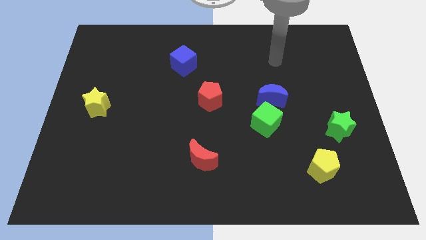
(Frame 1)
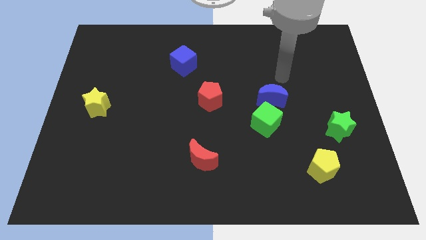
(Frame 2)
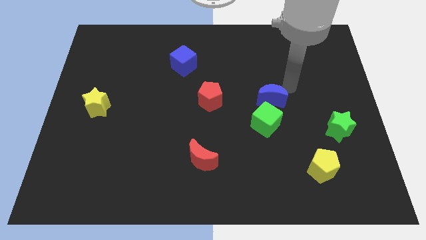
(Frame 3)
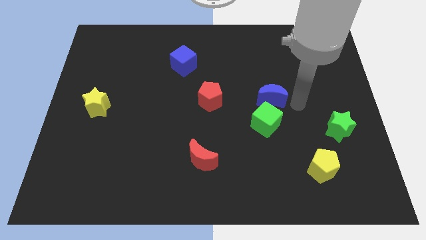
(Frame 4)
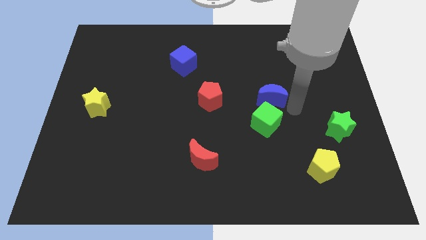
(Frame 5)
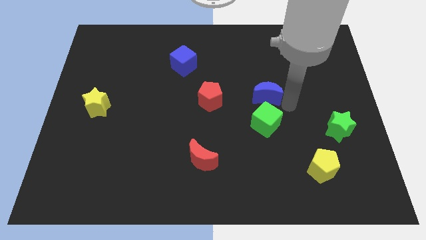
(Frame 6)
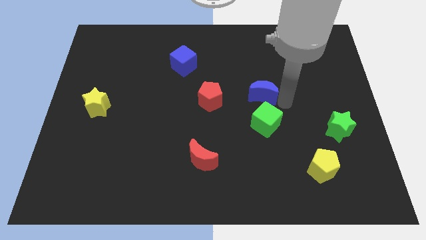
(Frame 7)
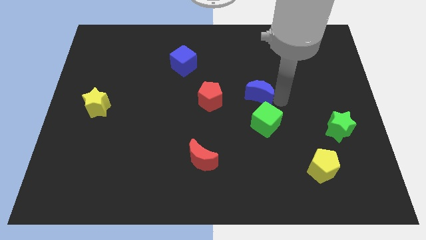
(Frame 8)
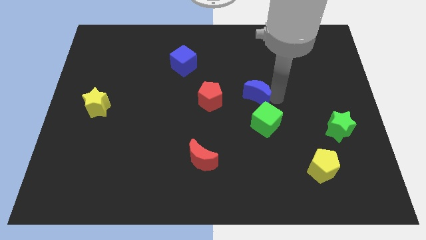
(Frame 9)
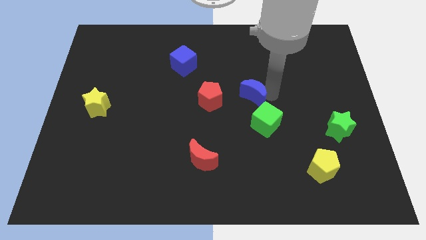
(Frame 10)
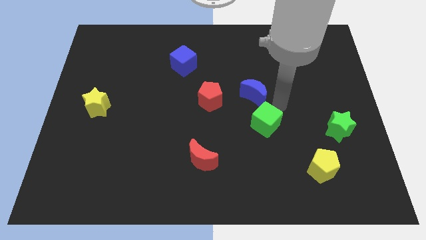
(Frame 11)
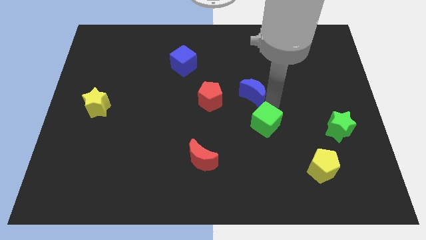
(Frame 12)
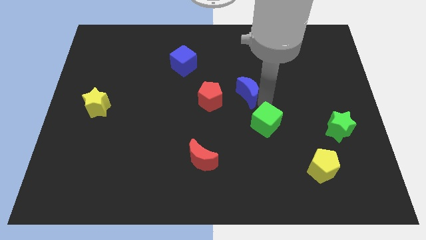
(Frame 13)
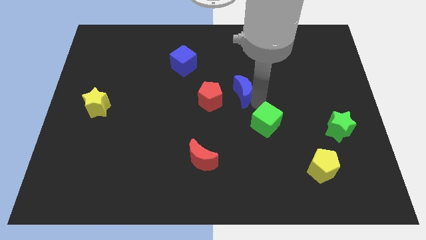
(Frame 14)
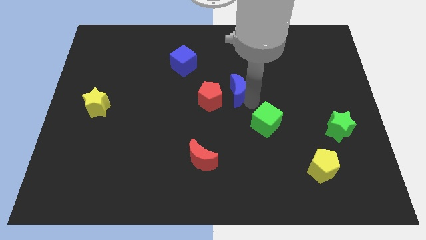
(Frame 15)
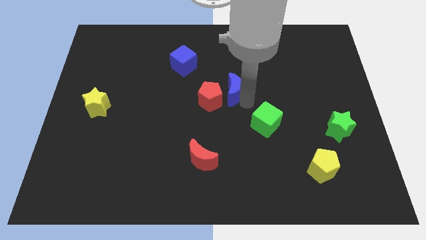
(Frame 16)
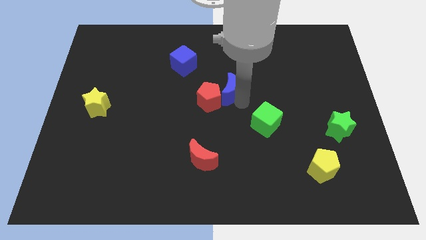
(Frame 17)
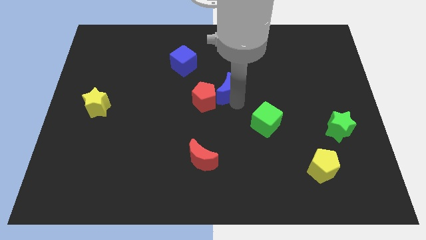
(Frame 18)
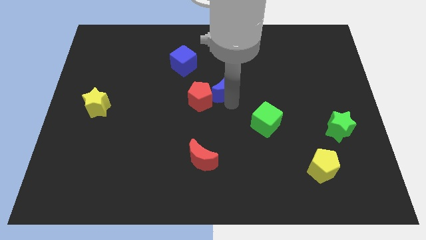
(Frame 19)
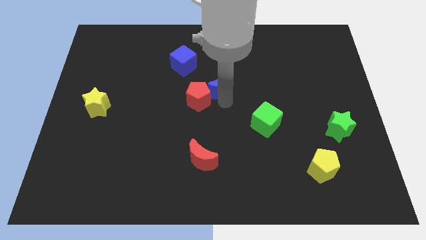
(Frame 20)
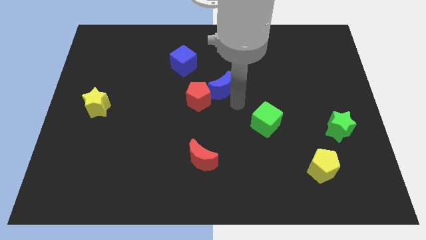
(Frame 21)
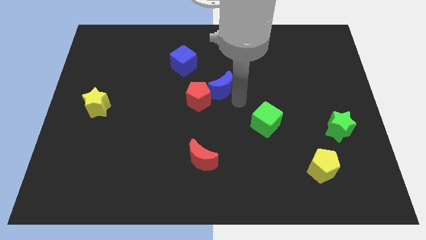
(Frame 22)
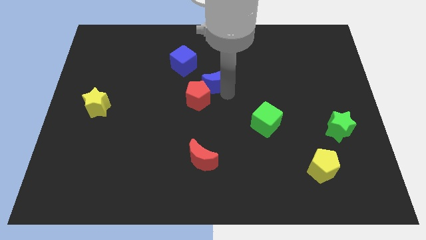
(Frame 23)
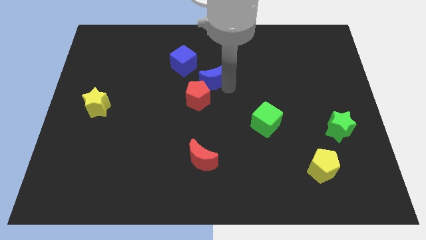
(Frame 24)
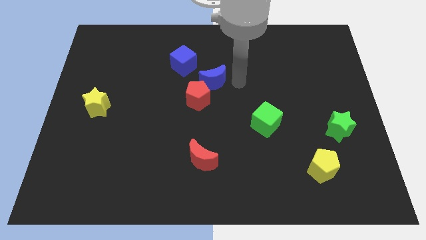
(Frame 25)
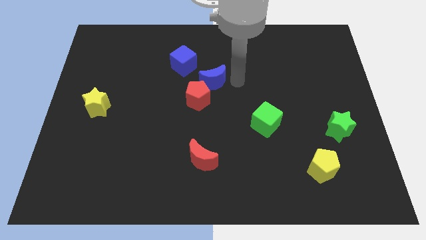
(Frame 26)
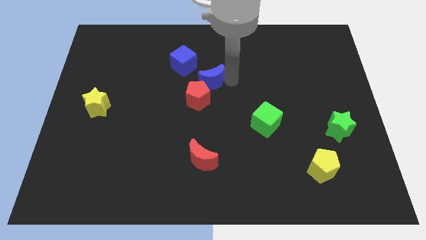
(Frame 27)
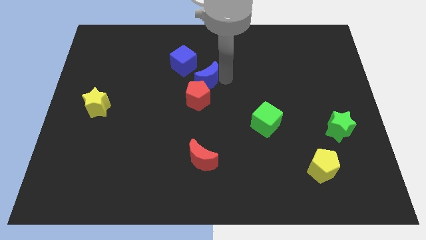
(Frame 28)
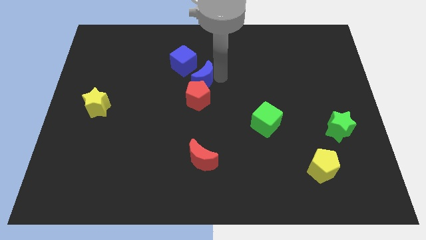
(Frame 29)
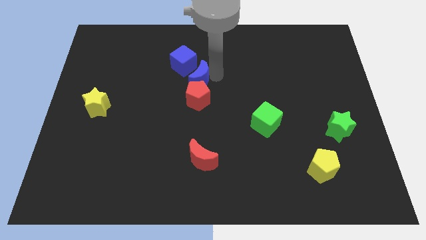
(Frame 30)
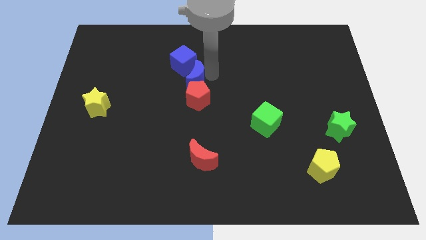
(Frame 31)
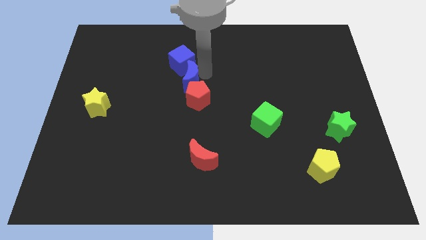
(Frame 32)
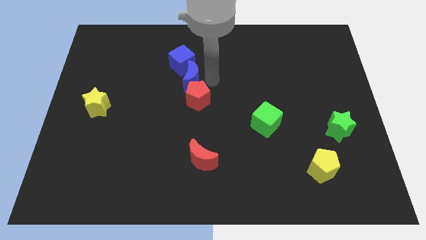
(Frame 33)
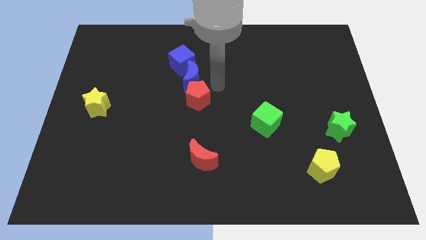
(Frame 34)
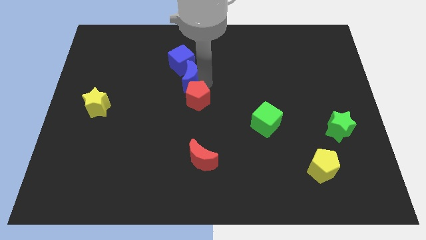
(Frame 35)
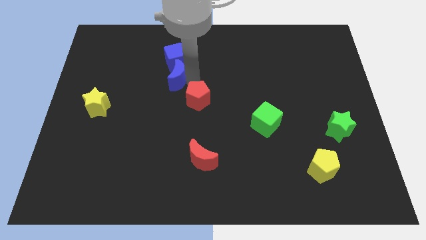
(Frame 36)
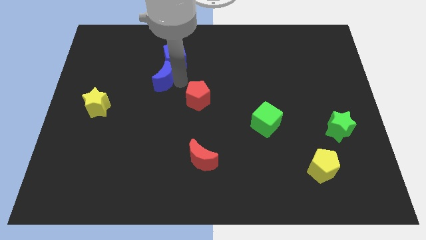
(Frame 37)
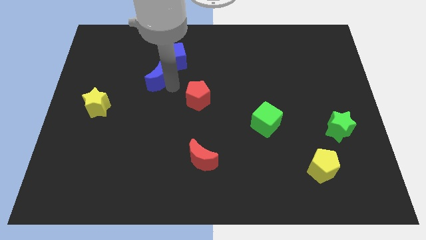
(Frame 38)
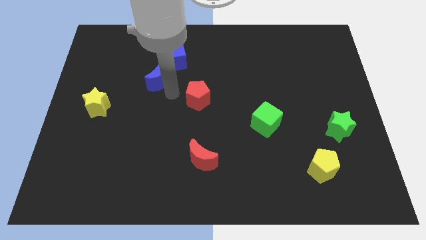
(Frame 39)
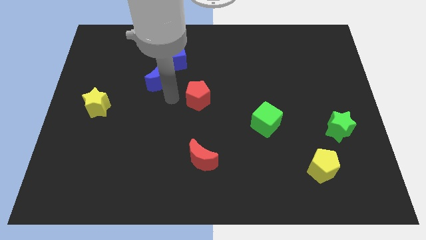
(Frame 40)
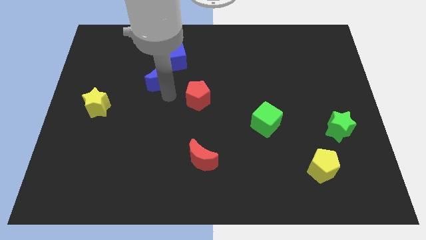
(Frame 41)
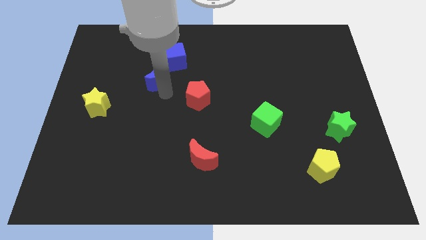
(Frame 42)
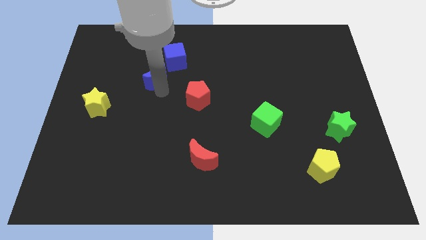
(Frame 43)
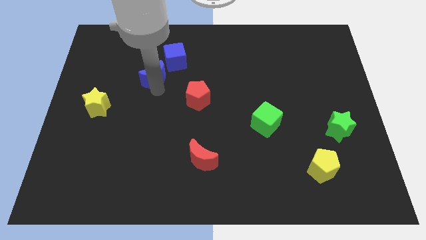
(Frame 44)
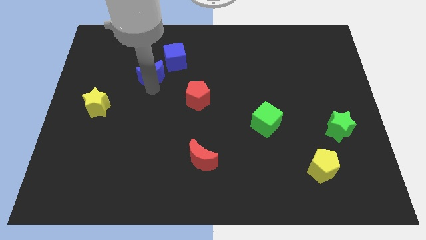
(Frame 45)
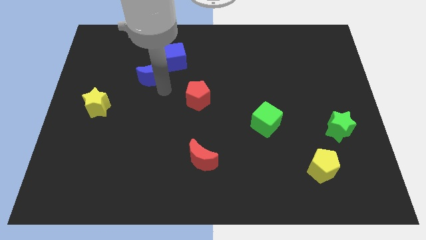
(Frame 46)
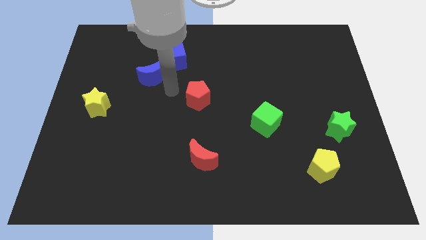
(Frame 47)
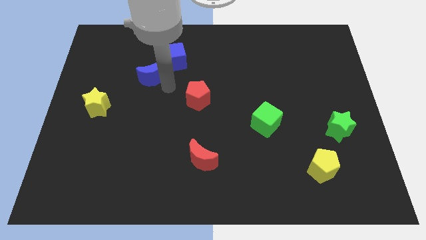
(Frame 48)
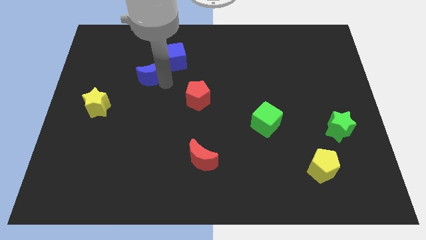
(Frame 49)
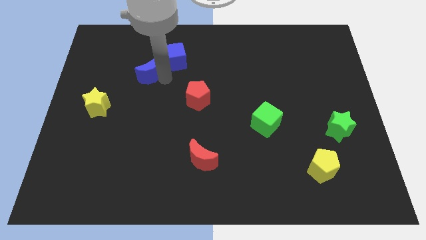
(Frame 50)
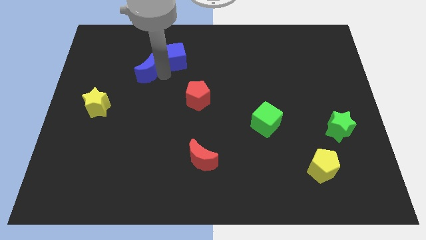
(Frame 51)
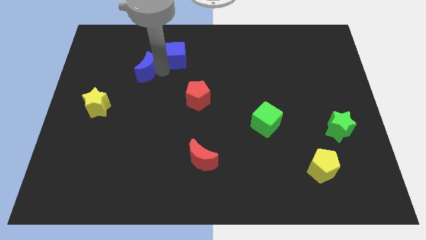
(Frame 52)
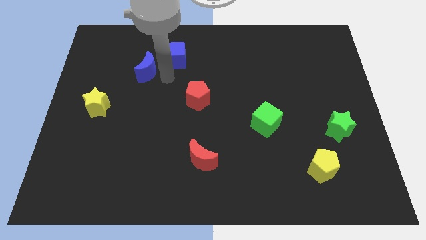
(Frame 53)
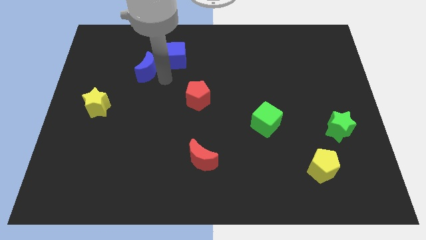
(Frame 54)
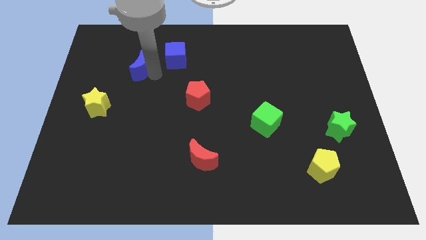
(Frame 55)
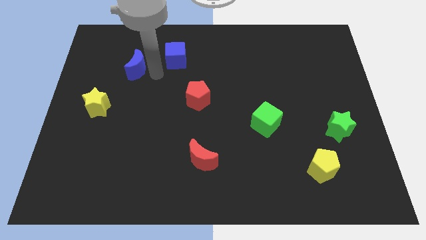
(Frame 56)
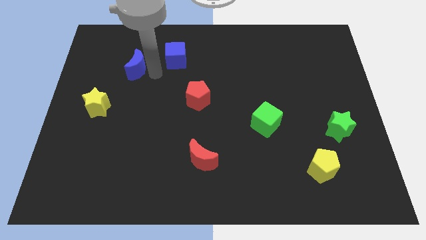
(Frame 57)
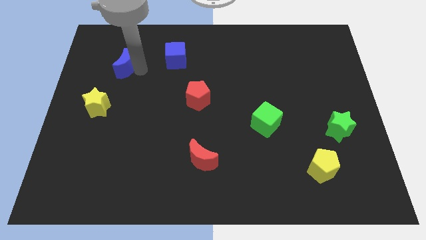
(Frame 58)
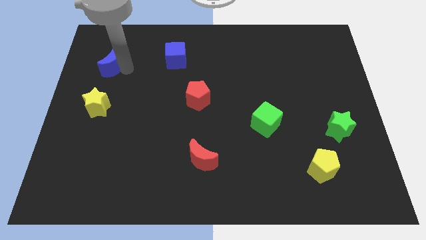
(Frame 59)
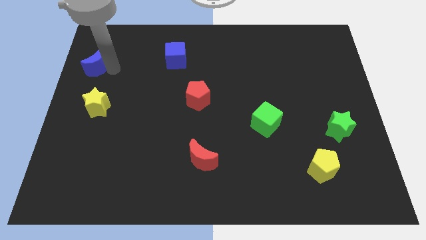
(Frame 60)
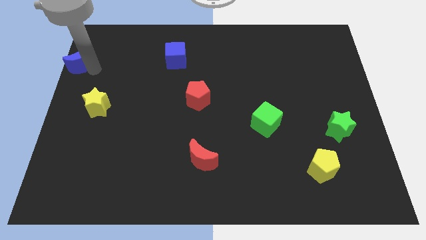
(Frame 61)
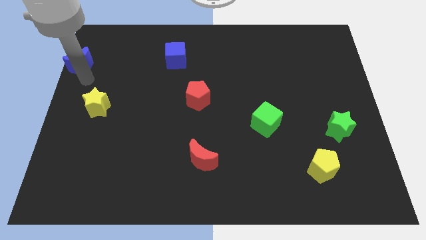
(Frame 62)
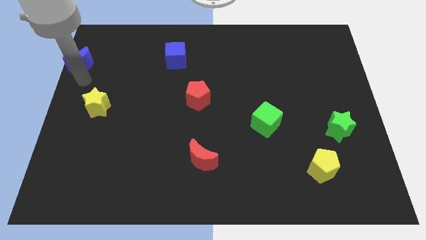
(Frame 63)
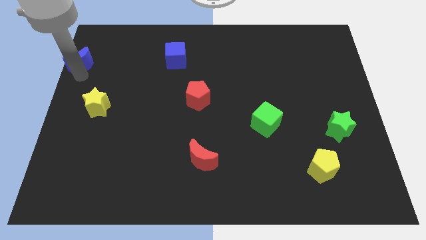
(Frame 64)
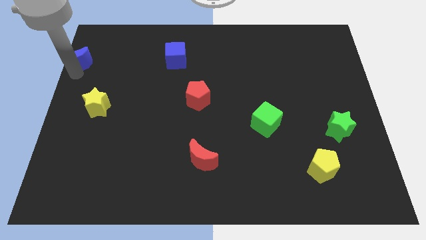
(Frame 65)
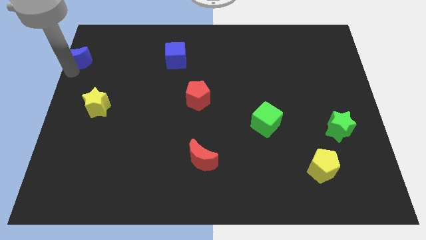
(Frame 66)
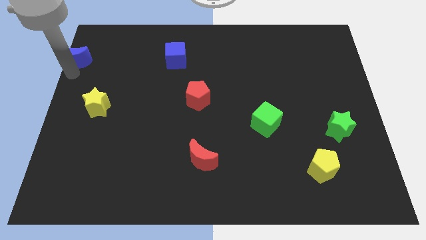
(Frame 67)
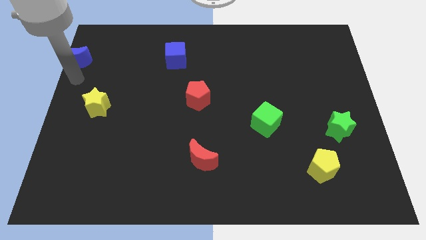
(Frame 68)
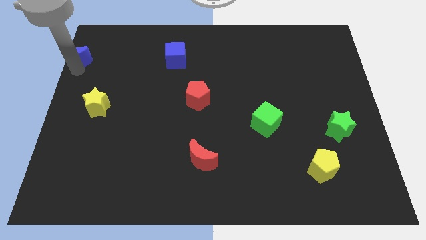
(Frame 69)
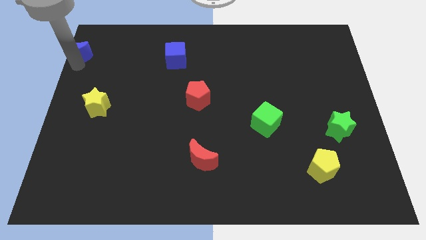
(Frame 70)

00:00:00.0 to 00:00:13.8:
move the blue moon to the upper left corner
